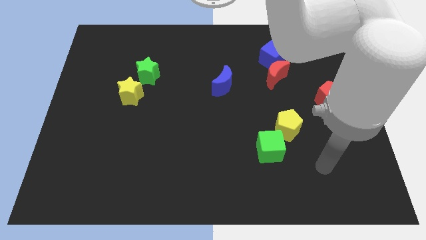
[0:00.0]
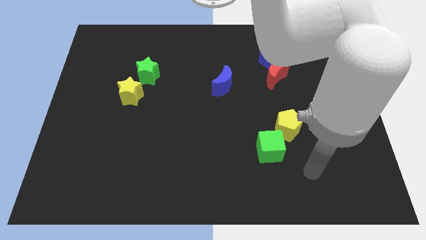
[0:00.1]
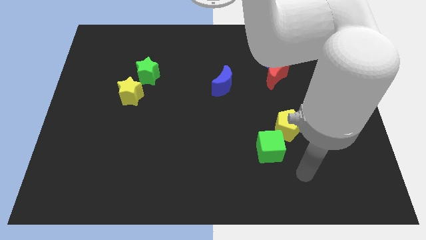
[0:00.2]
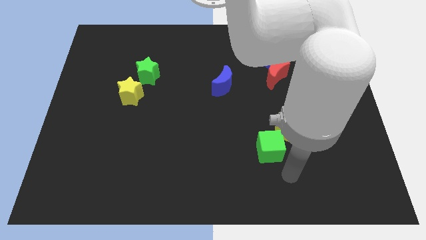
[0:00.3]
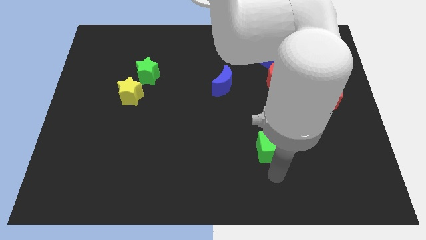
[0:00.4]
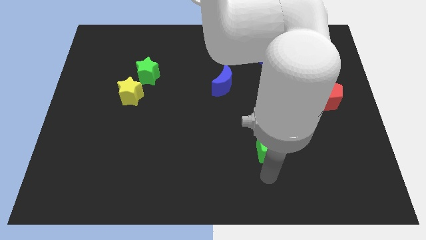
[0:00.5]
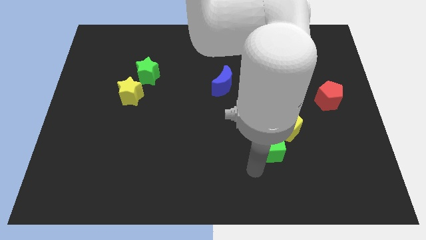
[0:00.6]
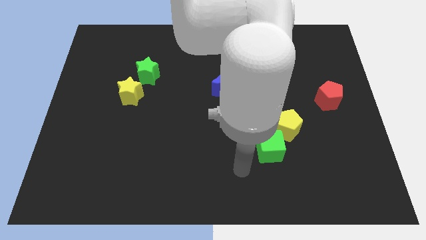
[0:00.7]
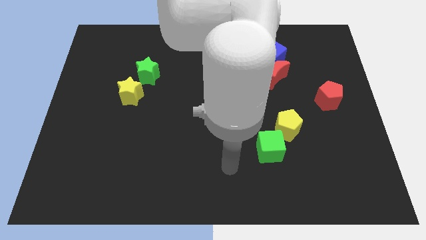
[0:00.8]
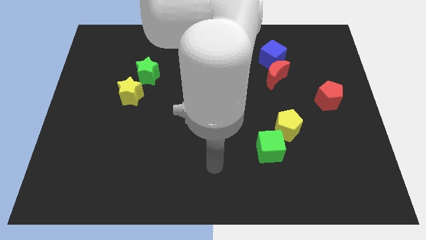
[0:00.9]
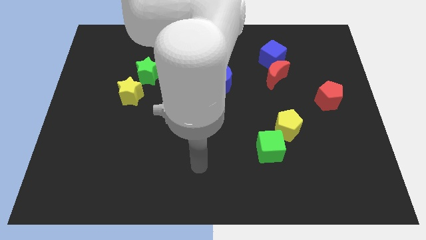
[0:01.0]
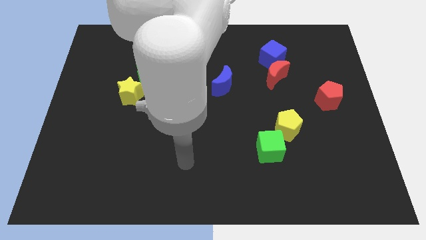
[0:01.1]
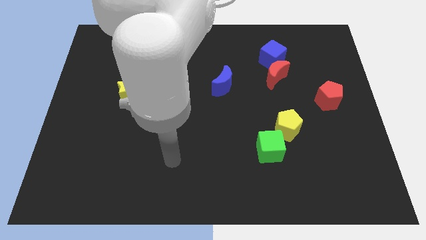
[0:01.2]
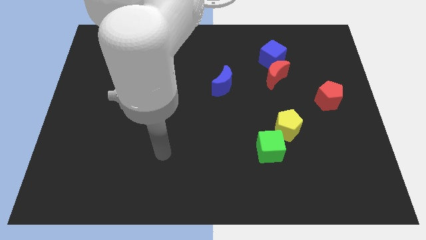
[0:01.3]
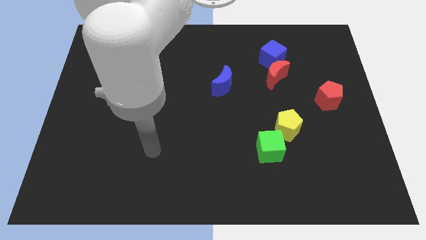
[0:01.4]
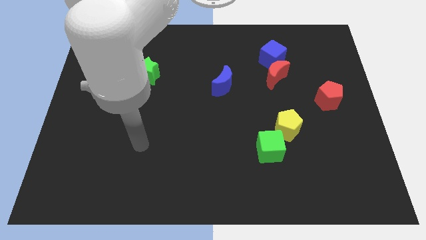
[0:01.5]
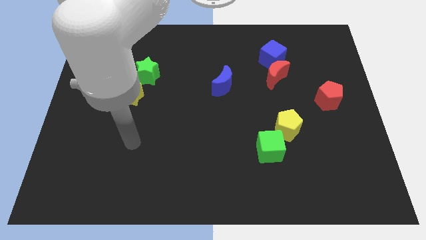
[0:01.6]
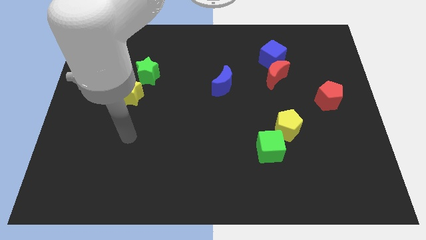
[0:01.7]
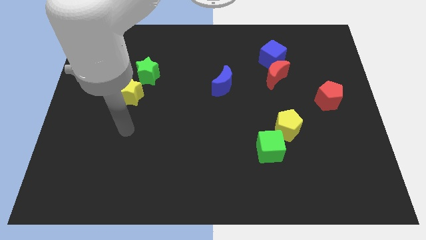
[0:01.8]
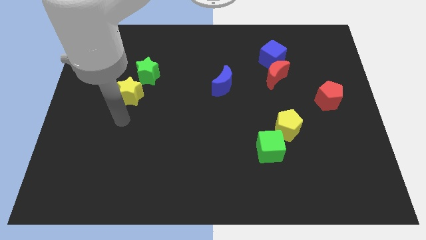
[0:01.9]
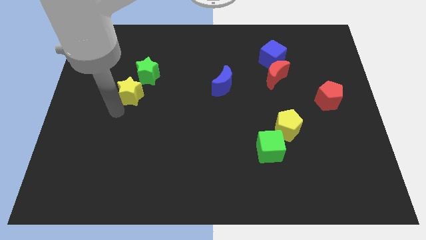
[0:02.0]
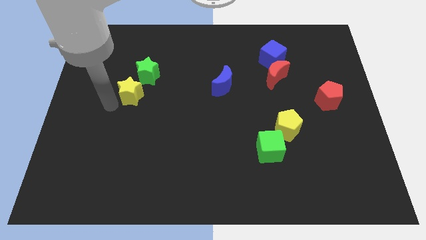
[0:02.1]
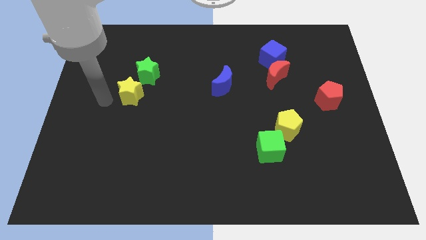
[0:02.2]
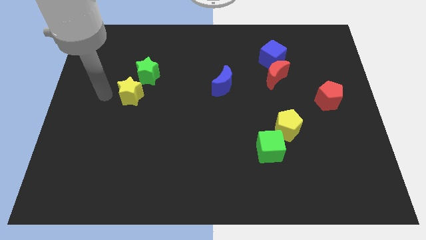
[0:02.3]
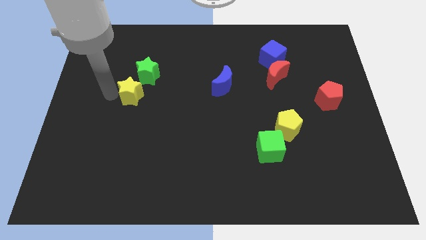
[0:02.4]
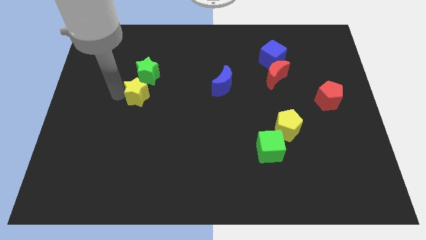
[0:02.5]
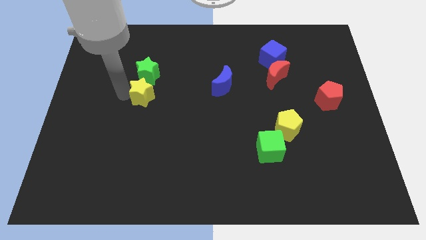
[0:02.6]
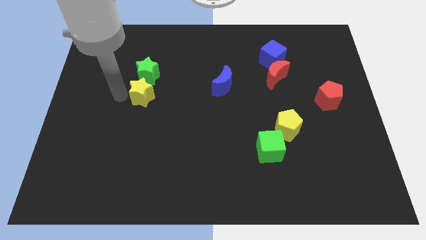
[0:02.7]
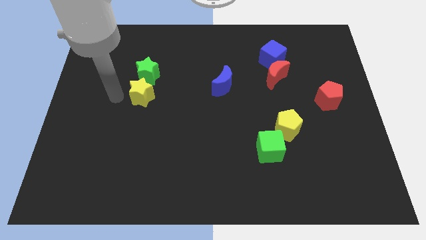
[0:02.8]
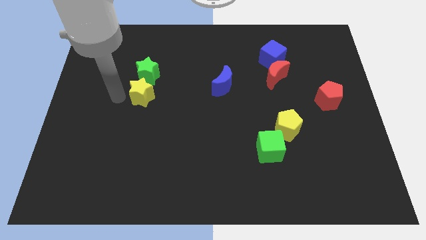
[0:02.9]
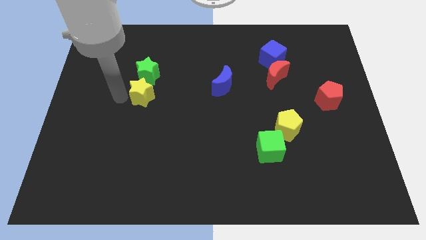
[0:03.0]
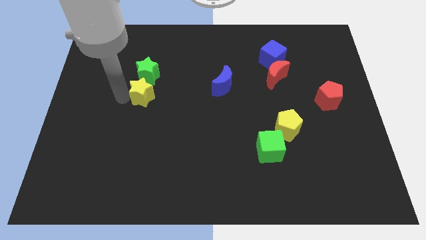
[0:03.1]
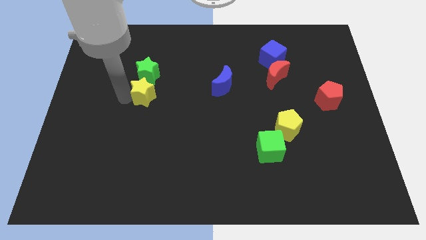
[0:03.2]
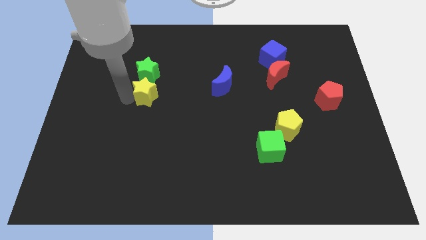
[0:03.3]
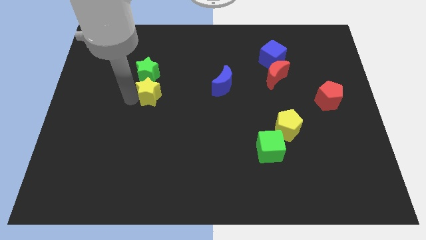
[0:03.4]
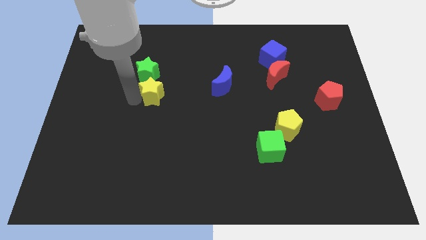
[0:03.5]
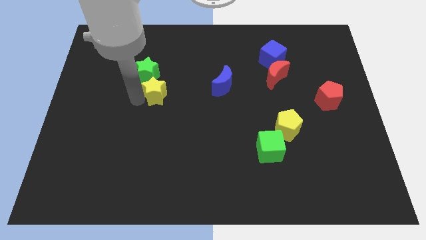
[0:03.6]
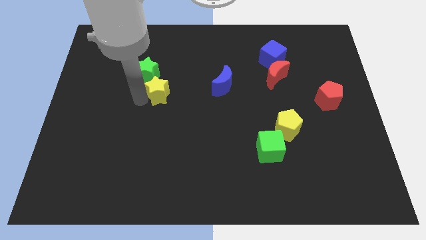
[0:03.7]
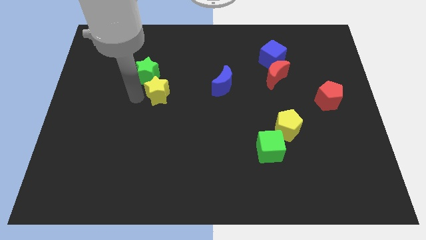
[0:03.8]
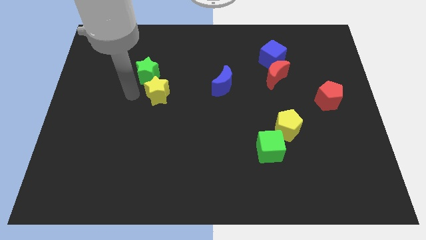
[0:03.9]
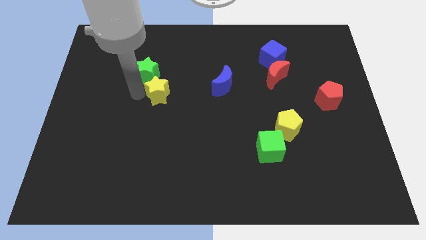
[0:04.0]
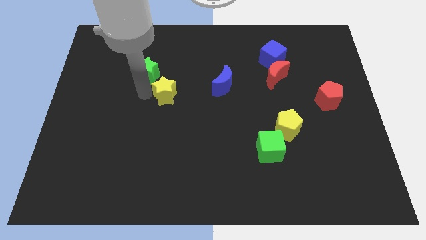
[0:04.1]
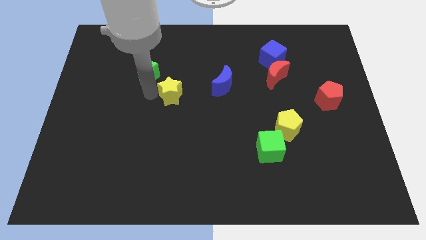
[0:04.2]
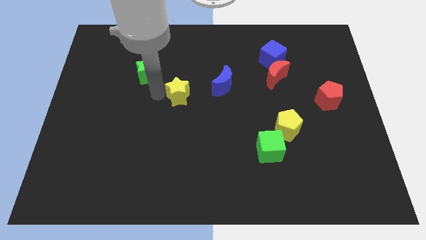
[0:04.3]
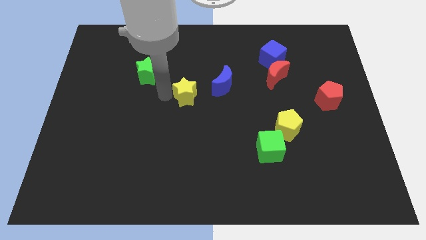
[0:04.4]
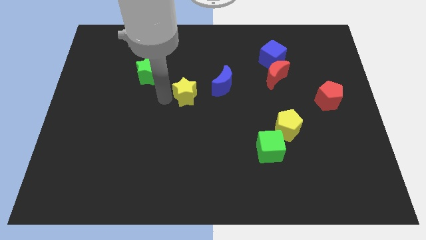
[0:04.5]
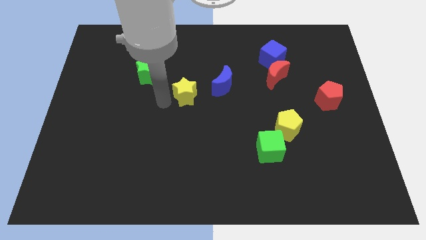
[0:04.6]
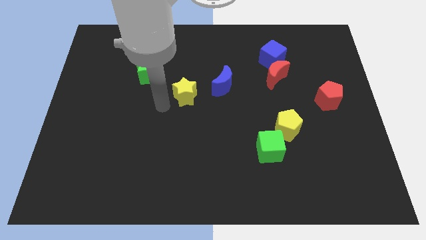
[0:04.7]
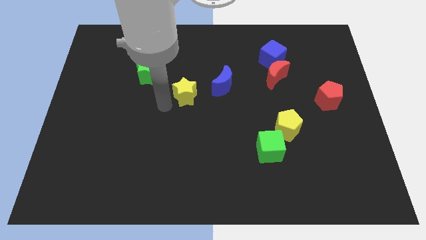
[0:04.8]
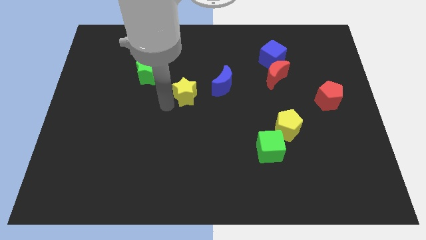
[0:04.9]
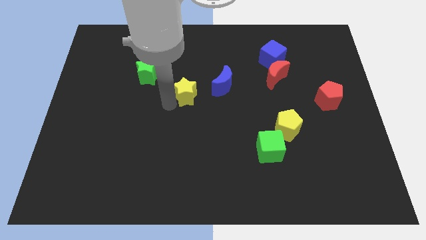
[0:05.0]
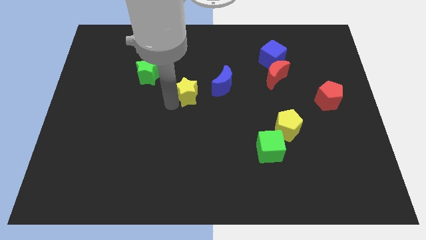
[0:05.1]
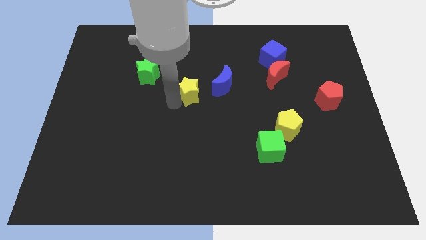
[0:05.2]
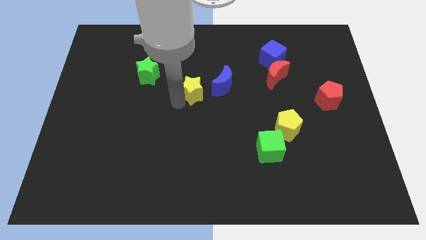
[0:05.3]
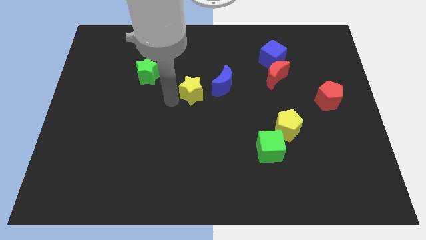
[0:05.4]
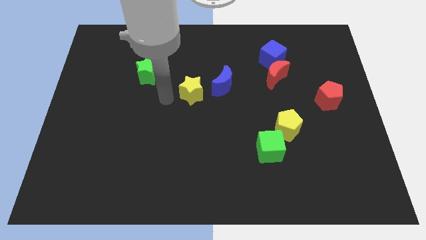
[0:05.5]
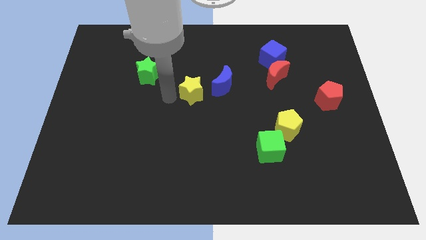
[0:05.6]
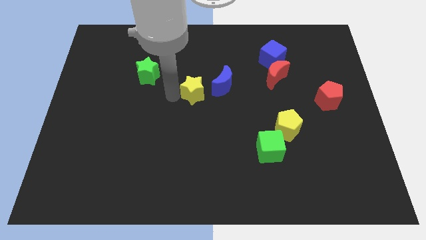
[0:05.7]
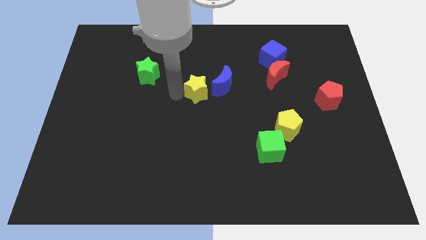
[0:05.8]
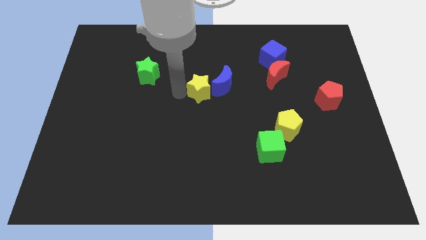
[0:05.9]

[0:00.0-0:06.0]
push the yellow star to the blue moon

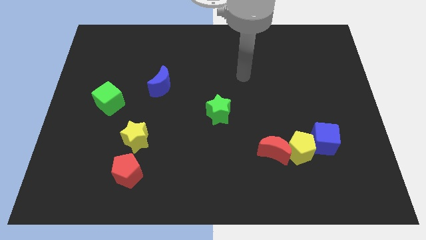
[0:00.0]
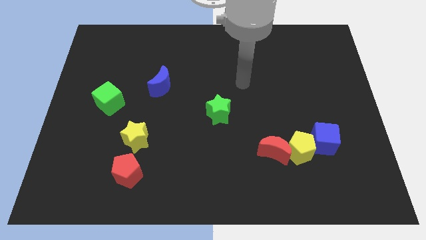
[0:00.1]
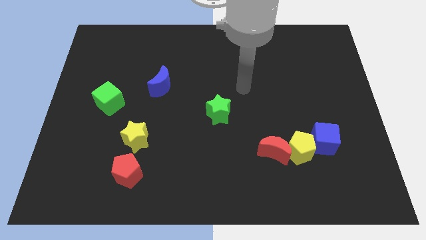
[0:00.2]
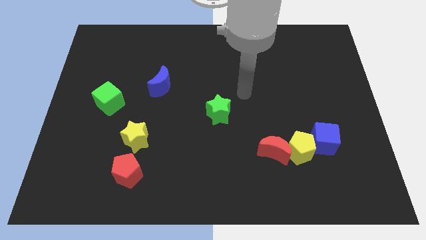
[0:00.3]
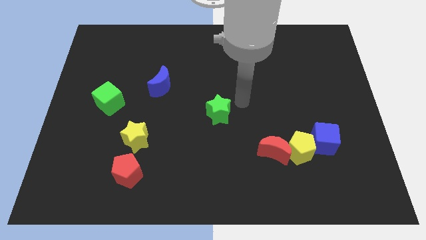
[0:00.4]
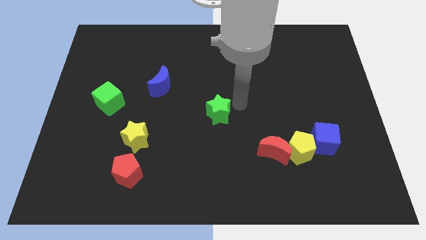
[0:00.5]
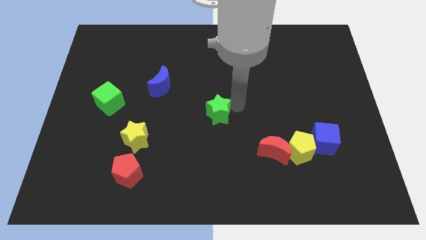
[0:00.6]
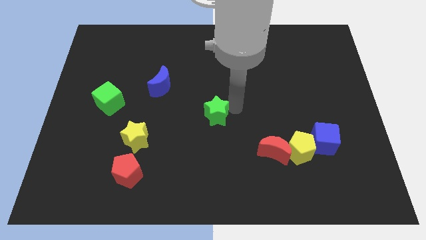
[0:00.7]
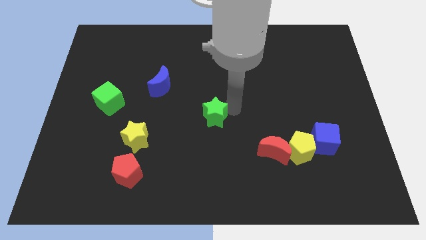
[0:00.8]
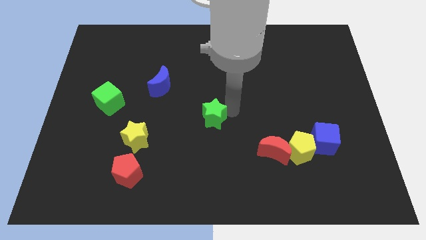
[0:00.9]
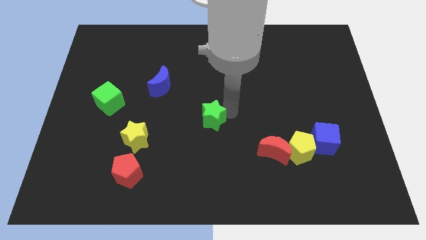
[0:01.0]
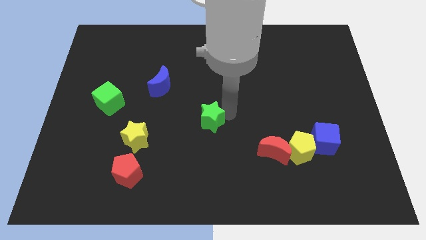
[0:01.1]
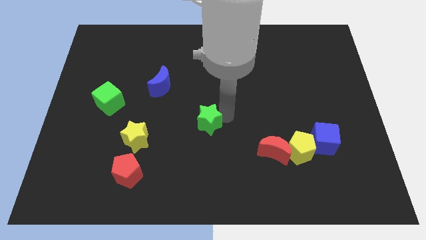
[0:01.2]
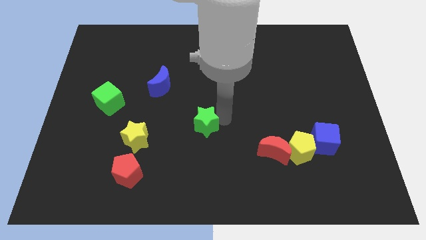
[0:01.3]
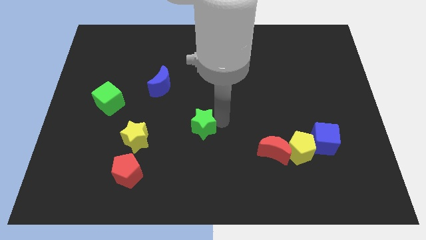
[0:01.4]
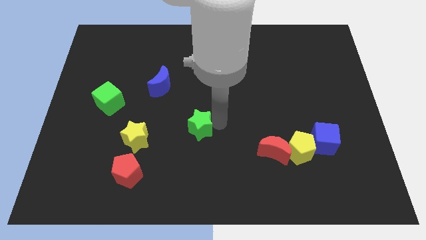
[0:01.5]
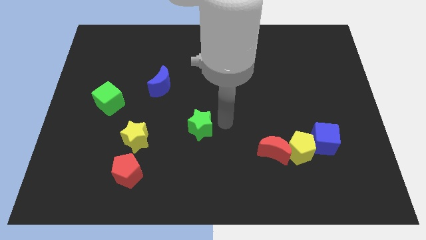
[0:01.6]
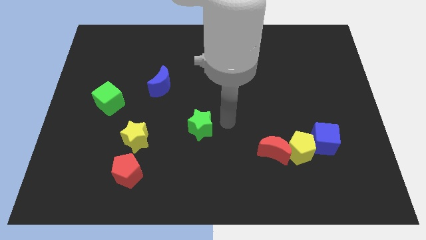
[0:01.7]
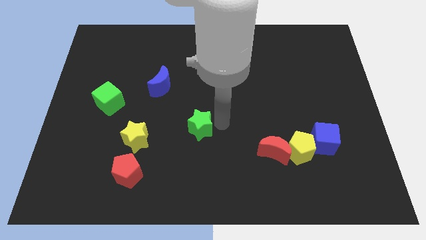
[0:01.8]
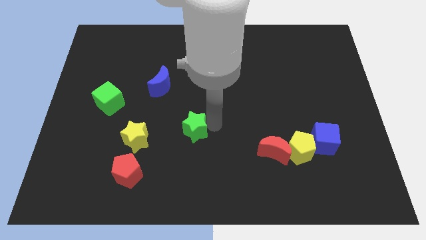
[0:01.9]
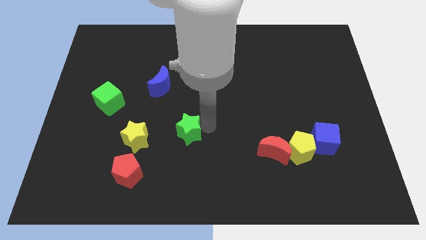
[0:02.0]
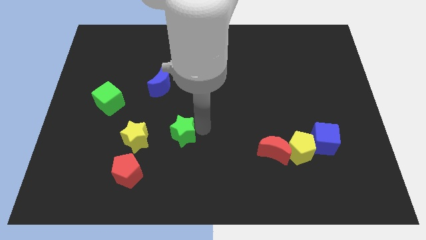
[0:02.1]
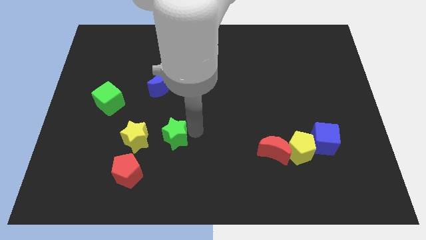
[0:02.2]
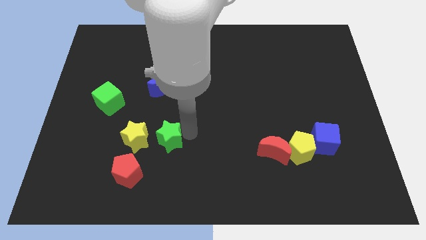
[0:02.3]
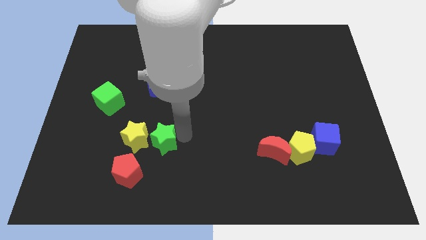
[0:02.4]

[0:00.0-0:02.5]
move the green star close to the yellow star
